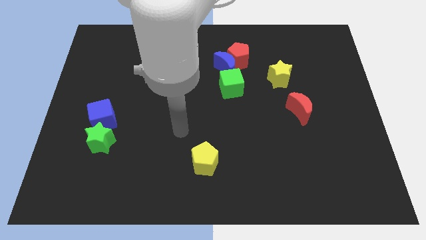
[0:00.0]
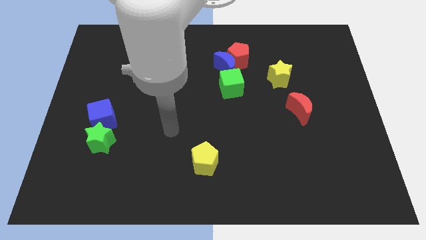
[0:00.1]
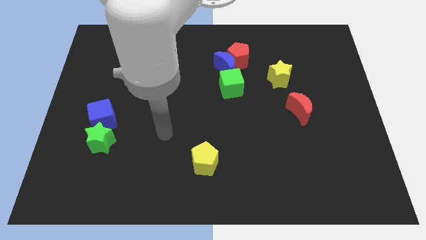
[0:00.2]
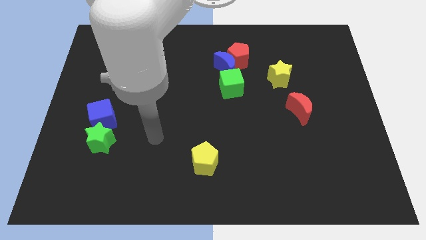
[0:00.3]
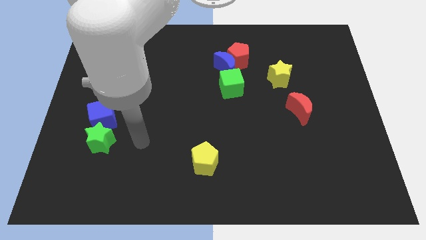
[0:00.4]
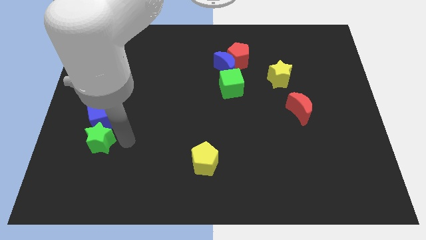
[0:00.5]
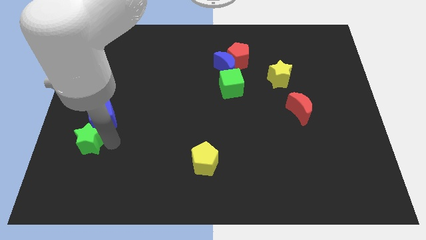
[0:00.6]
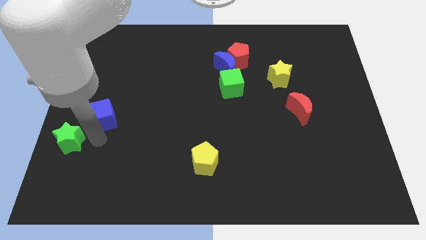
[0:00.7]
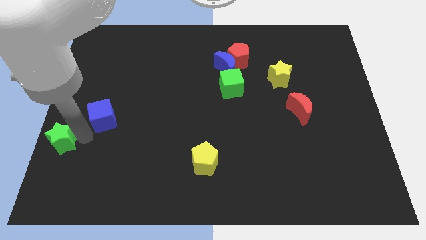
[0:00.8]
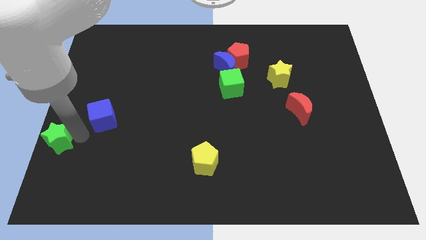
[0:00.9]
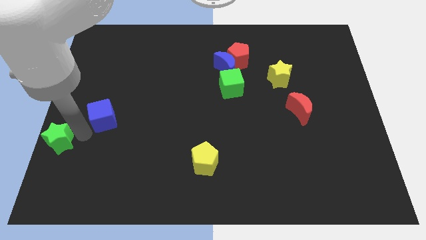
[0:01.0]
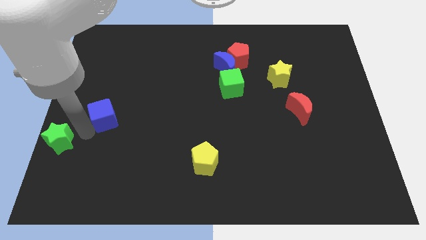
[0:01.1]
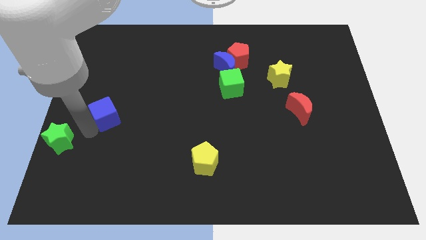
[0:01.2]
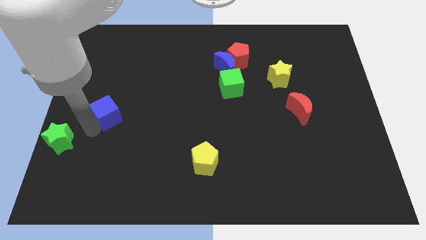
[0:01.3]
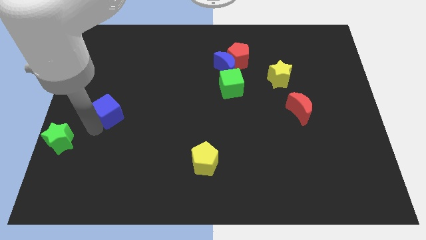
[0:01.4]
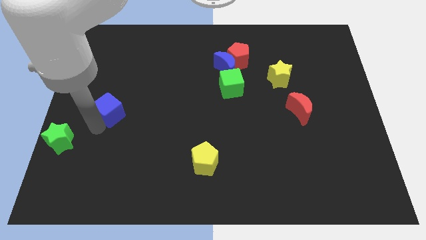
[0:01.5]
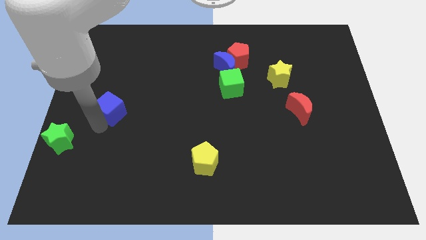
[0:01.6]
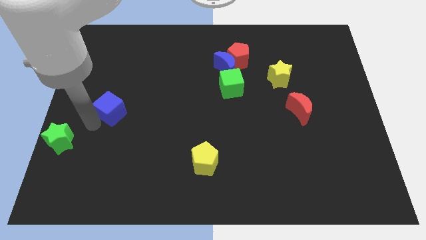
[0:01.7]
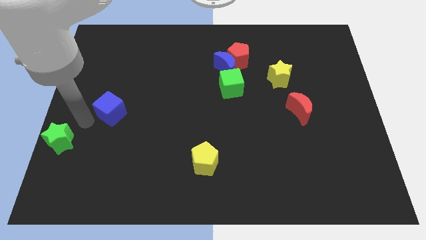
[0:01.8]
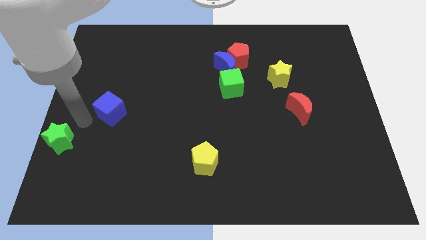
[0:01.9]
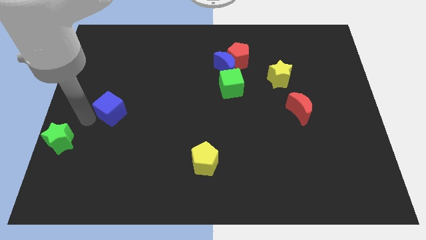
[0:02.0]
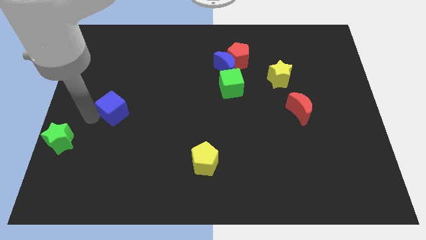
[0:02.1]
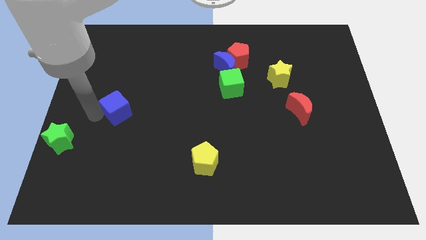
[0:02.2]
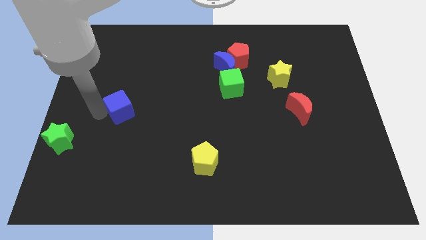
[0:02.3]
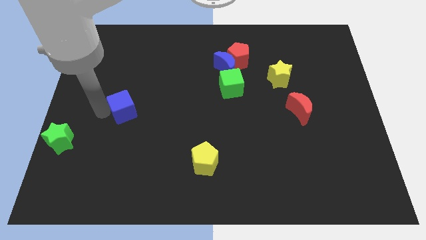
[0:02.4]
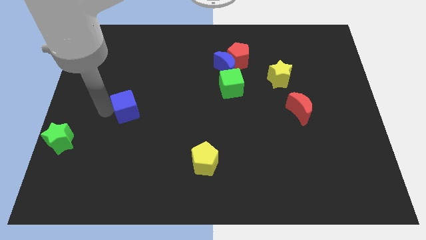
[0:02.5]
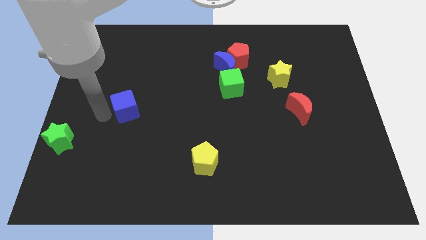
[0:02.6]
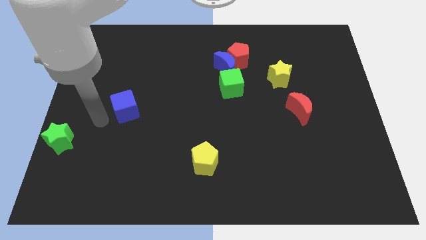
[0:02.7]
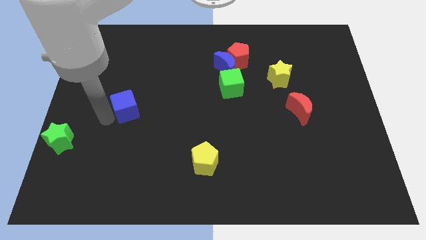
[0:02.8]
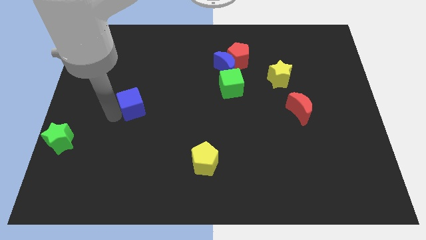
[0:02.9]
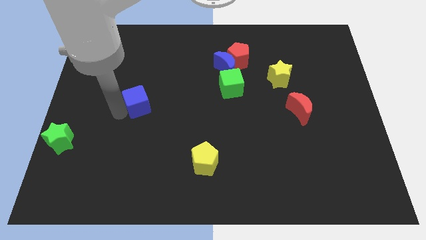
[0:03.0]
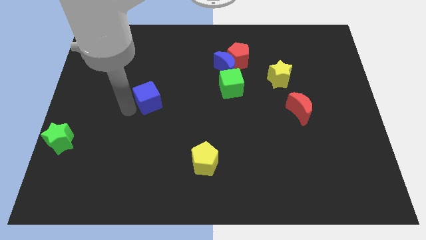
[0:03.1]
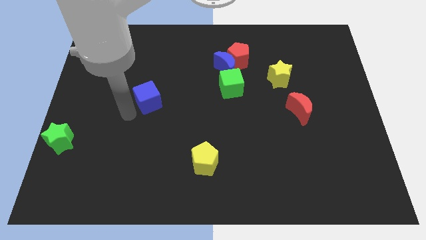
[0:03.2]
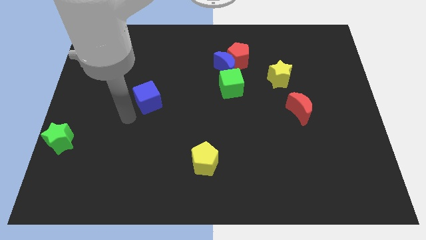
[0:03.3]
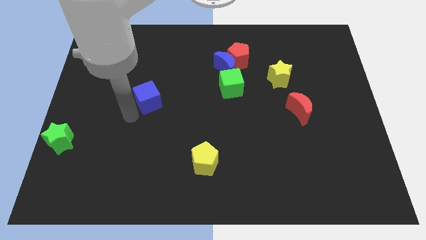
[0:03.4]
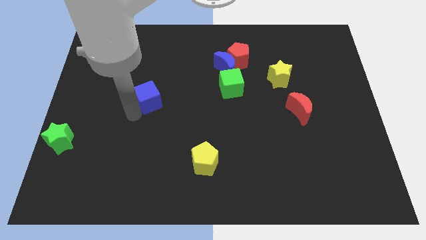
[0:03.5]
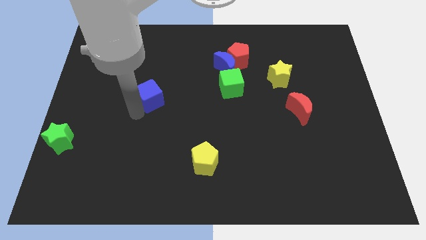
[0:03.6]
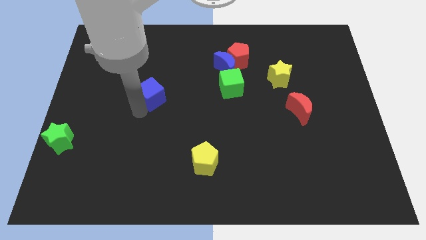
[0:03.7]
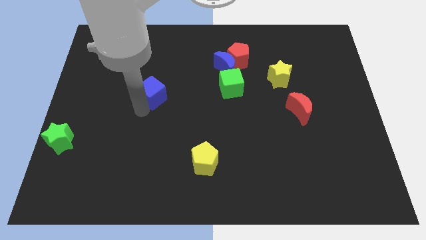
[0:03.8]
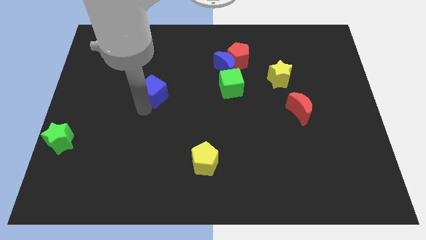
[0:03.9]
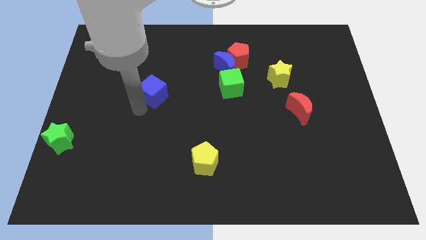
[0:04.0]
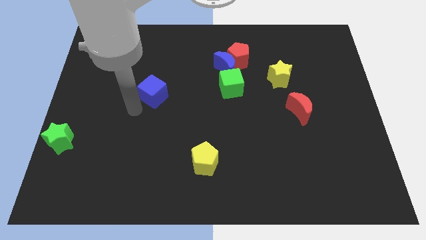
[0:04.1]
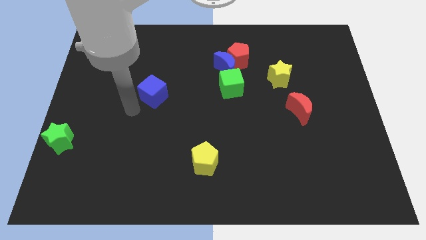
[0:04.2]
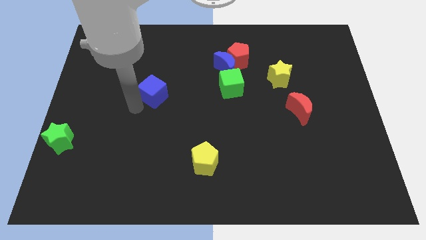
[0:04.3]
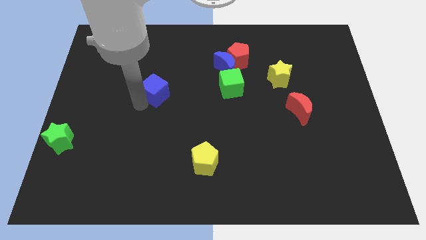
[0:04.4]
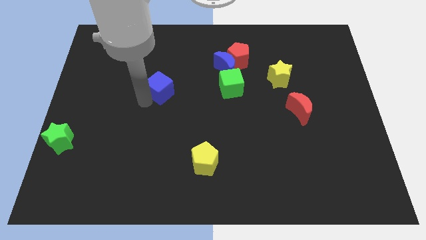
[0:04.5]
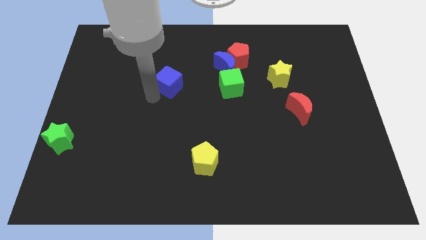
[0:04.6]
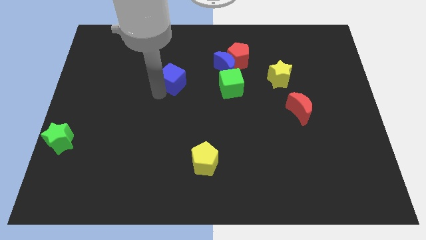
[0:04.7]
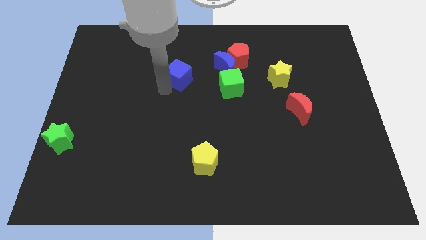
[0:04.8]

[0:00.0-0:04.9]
push the blue cube just left of the blue moon

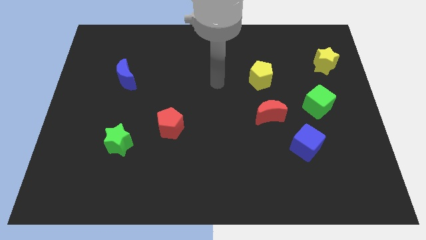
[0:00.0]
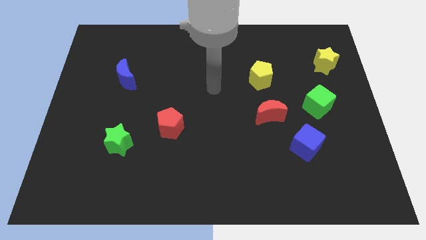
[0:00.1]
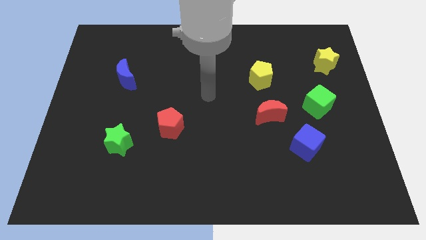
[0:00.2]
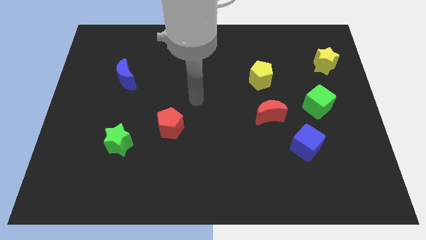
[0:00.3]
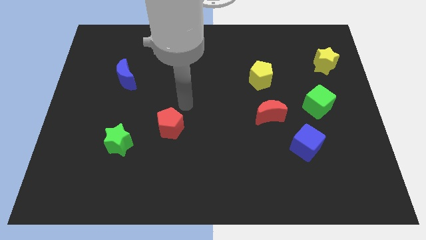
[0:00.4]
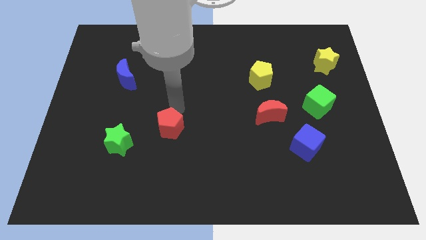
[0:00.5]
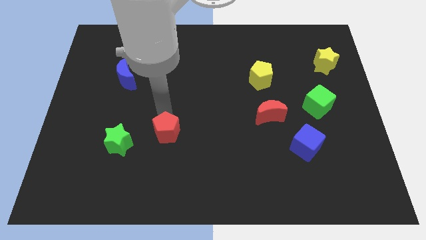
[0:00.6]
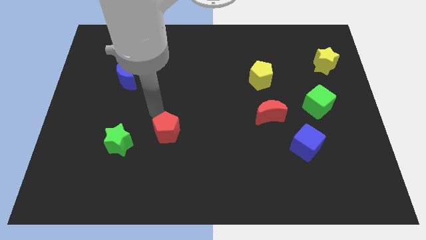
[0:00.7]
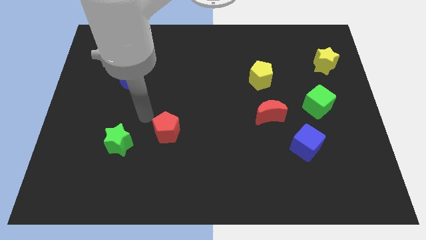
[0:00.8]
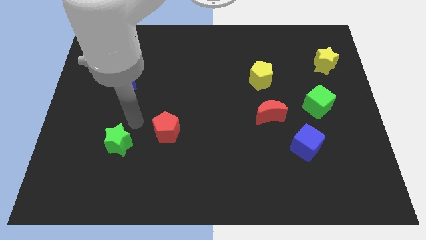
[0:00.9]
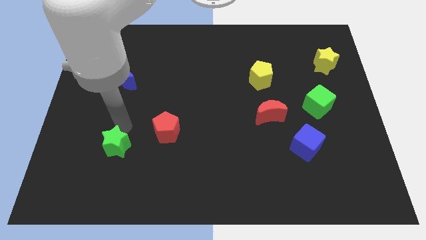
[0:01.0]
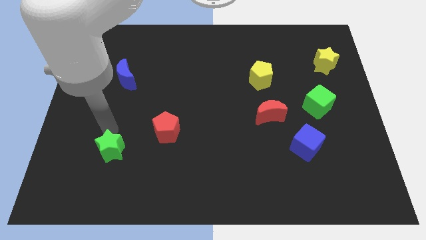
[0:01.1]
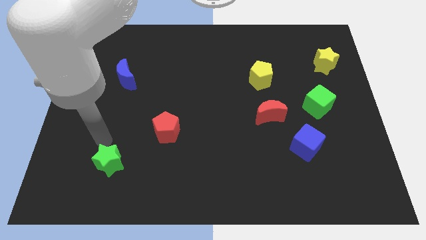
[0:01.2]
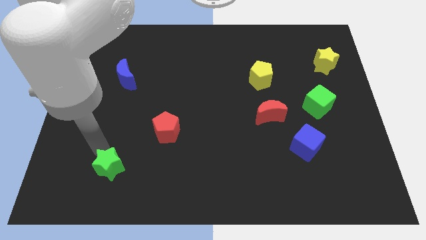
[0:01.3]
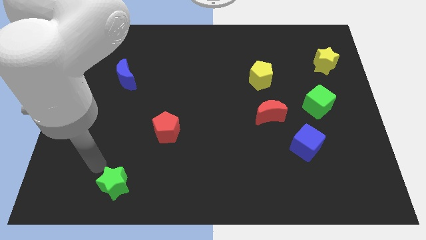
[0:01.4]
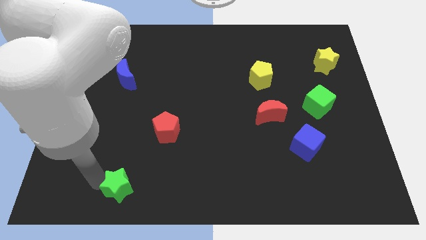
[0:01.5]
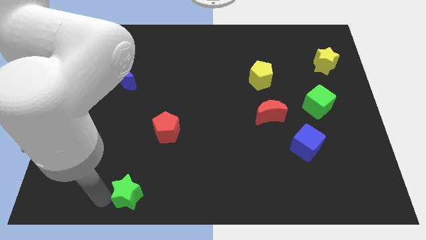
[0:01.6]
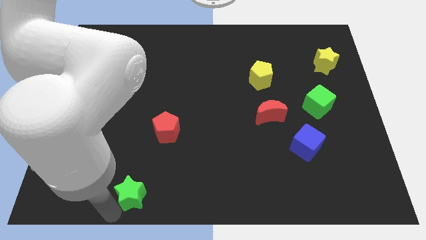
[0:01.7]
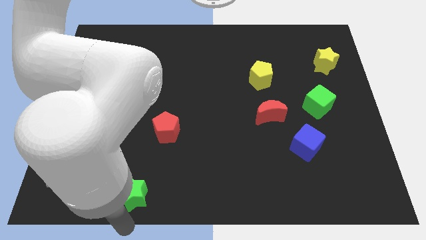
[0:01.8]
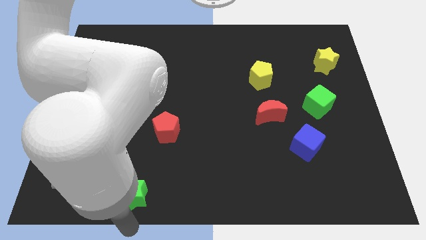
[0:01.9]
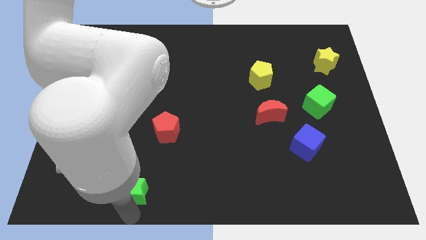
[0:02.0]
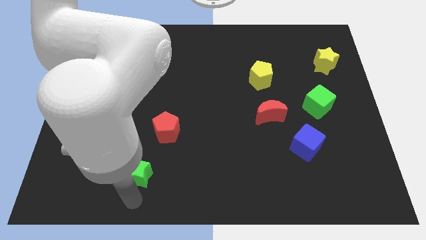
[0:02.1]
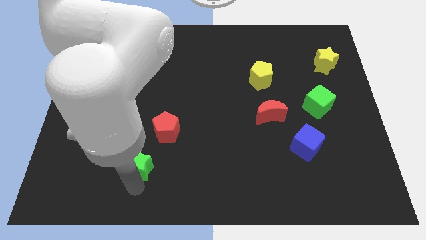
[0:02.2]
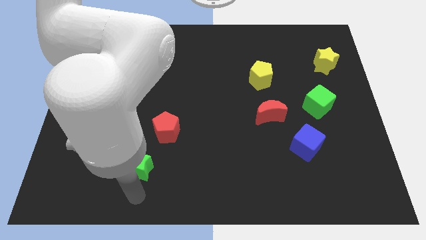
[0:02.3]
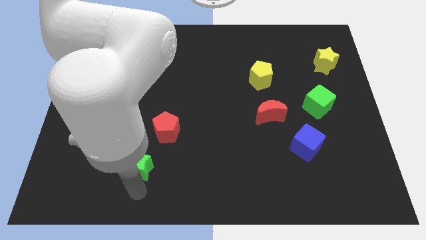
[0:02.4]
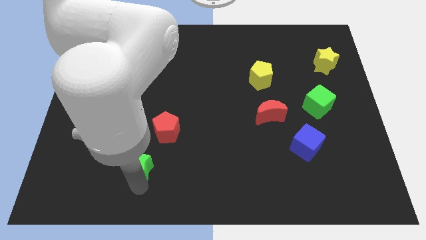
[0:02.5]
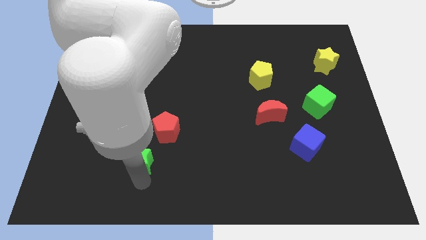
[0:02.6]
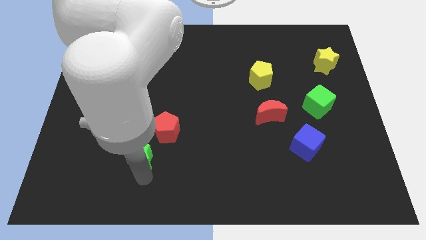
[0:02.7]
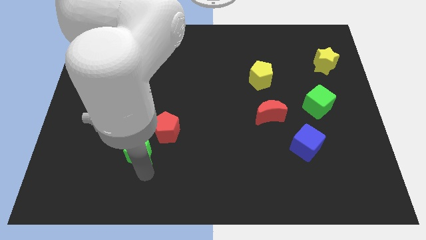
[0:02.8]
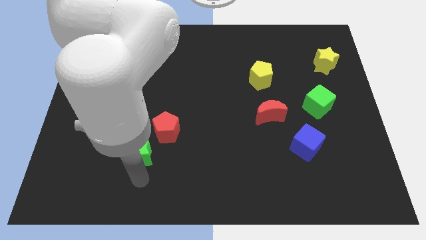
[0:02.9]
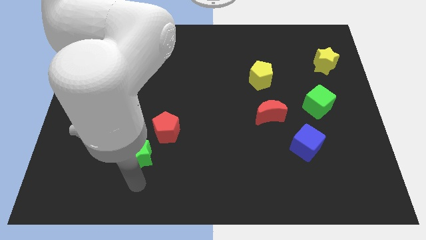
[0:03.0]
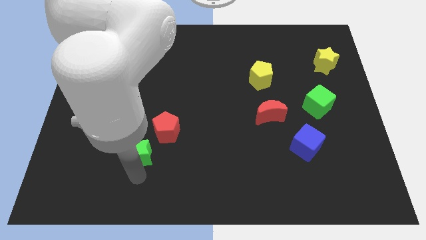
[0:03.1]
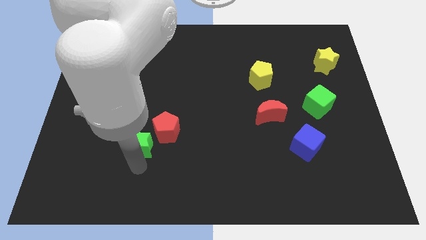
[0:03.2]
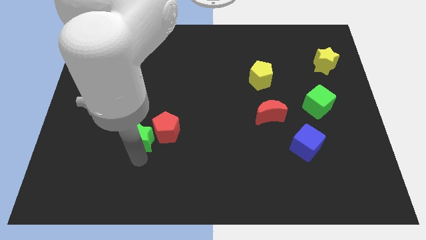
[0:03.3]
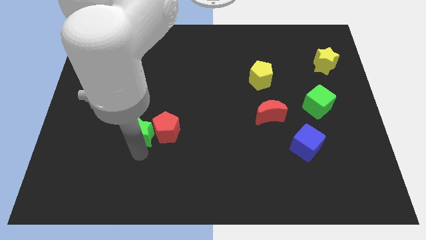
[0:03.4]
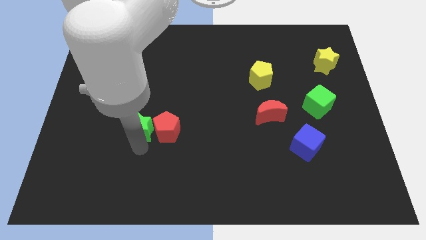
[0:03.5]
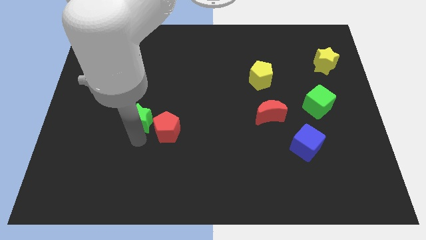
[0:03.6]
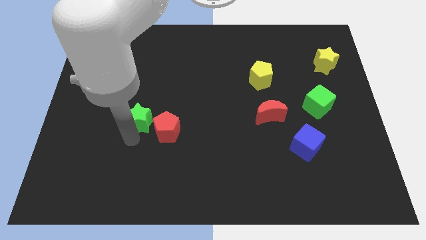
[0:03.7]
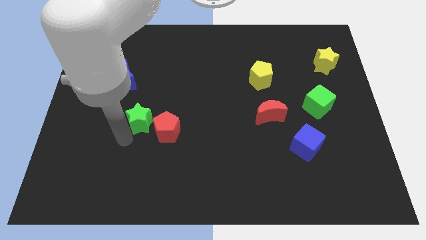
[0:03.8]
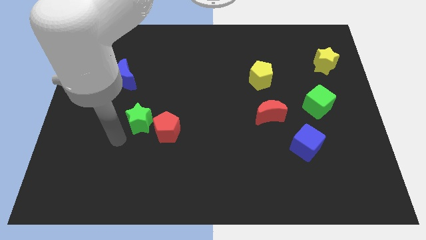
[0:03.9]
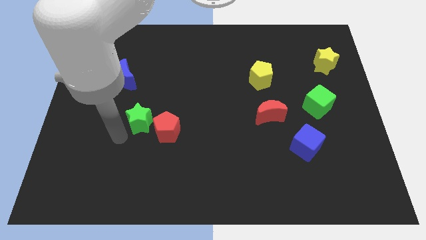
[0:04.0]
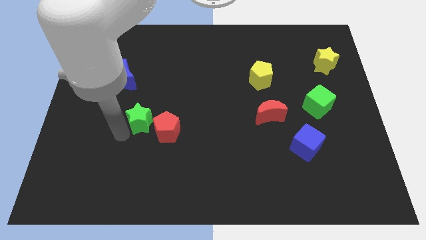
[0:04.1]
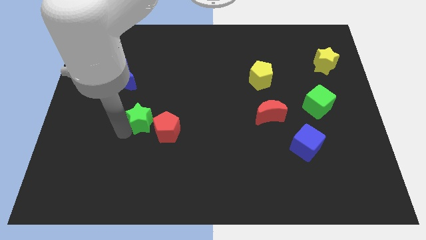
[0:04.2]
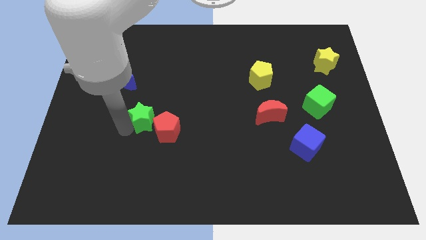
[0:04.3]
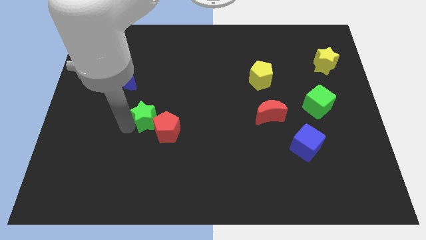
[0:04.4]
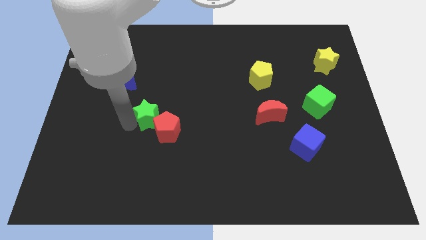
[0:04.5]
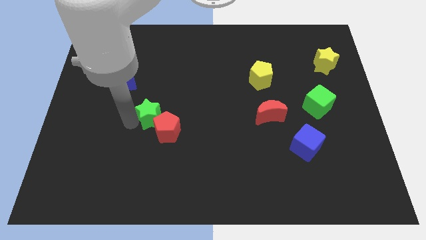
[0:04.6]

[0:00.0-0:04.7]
move the green star to the top side of the red pentagon
